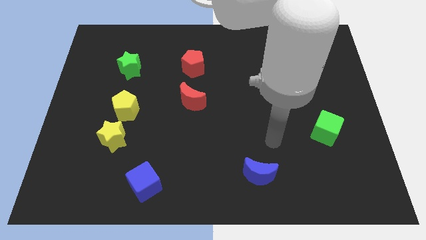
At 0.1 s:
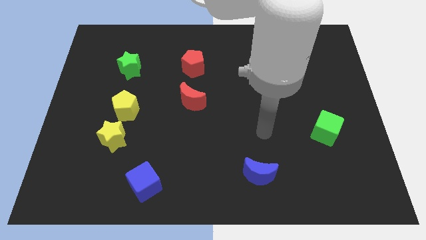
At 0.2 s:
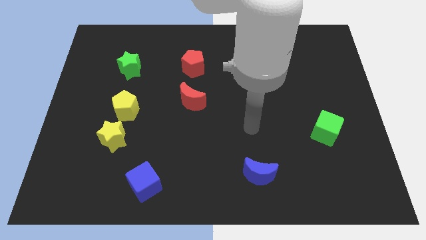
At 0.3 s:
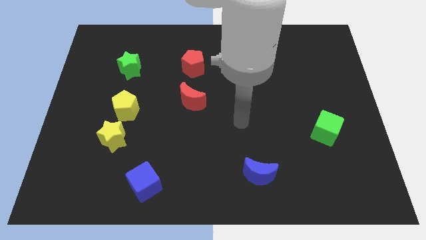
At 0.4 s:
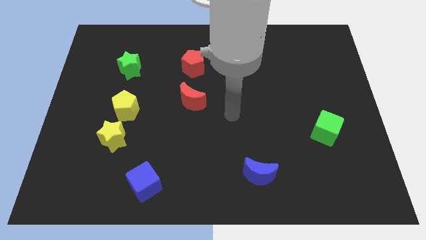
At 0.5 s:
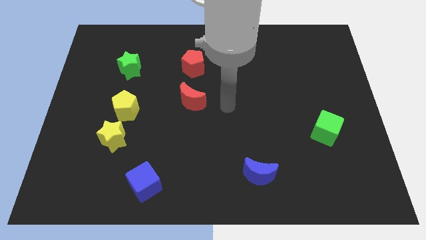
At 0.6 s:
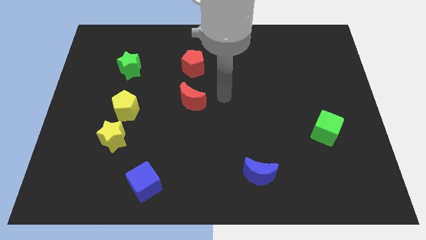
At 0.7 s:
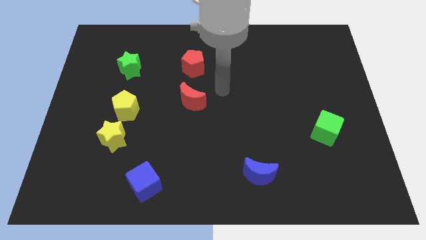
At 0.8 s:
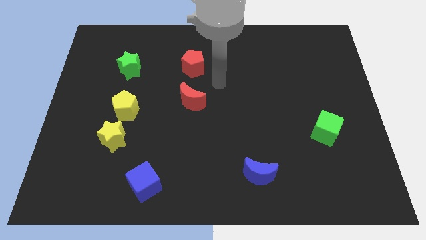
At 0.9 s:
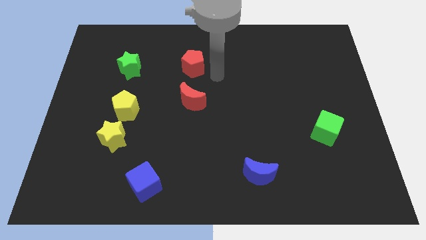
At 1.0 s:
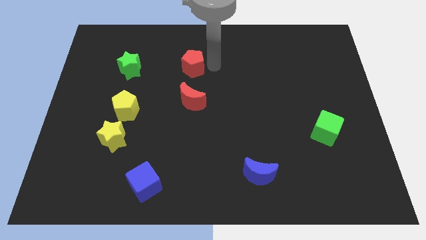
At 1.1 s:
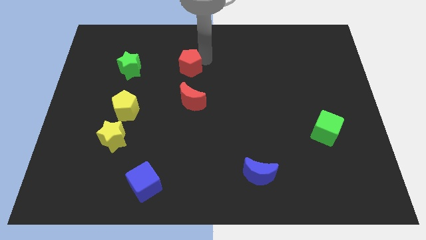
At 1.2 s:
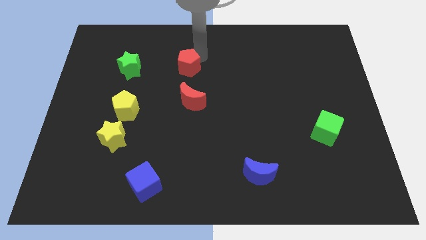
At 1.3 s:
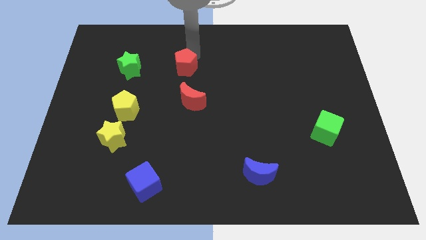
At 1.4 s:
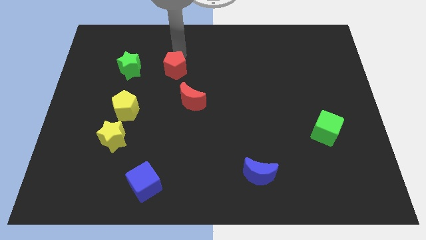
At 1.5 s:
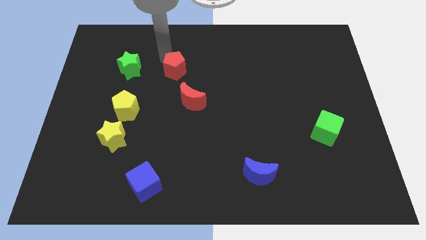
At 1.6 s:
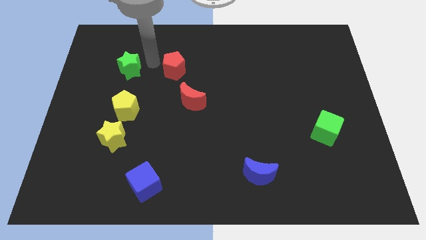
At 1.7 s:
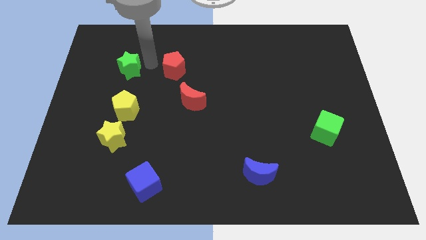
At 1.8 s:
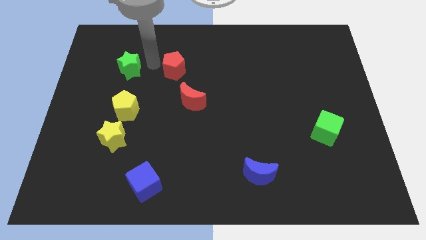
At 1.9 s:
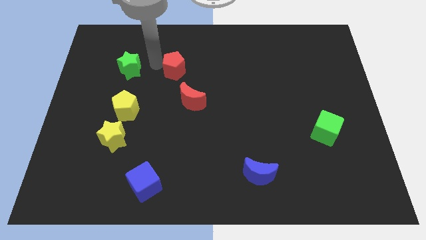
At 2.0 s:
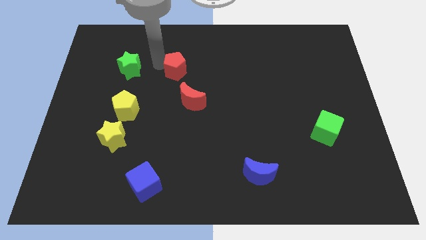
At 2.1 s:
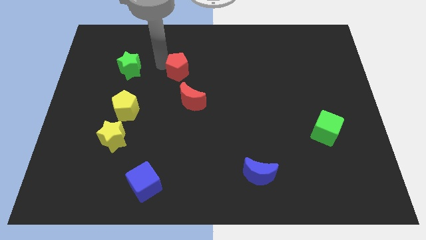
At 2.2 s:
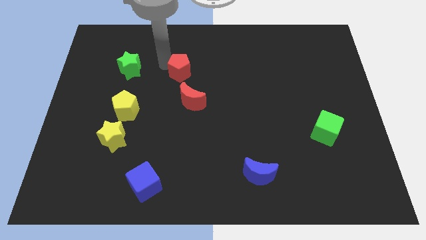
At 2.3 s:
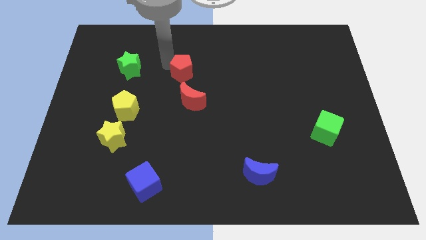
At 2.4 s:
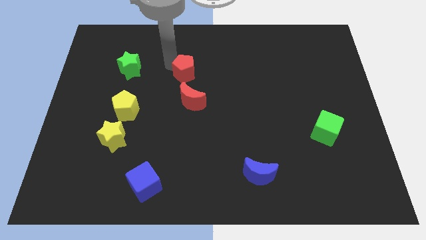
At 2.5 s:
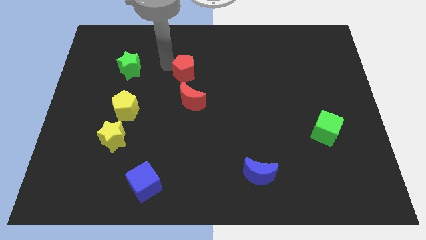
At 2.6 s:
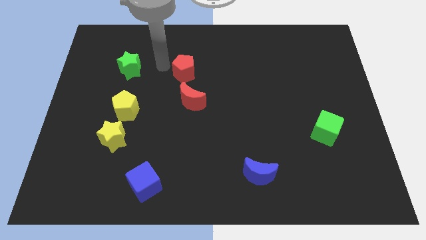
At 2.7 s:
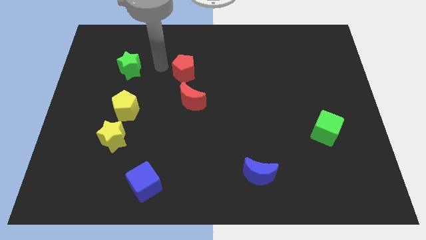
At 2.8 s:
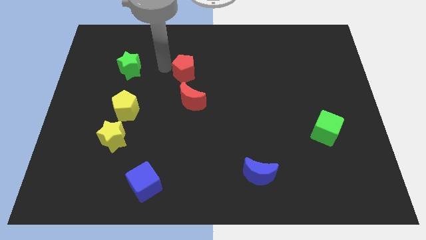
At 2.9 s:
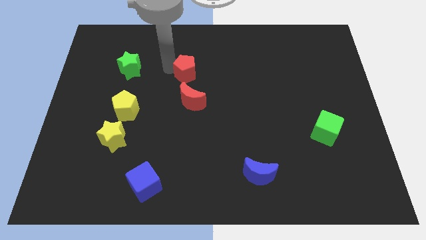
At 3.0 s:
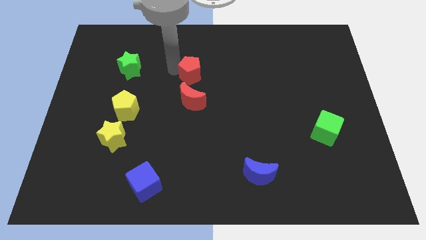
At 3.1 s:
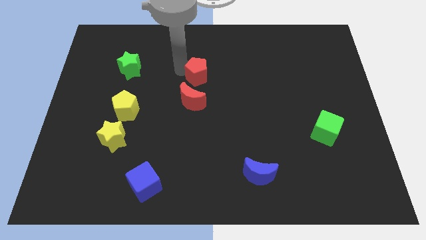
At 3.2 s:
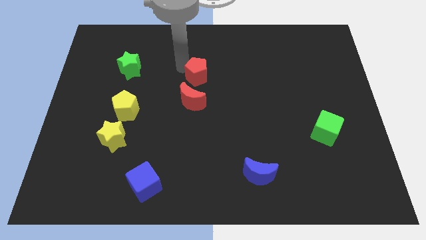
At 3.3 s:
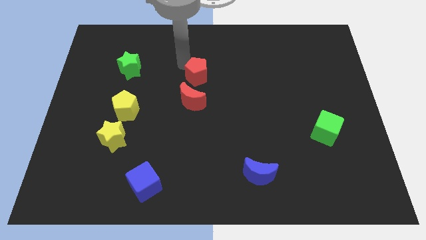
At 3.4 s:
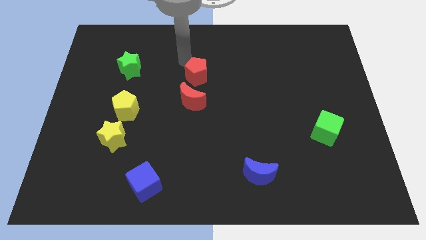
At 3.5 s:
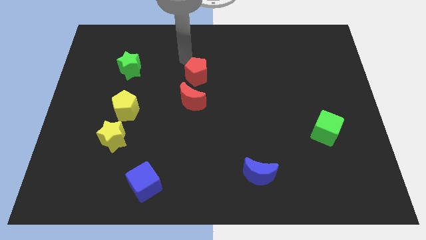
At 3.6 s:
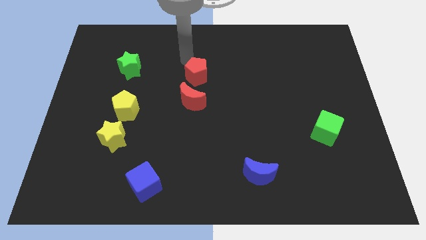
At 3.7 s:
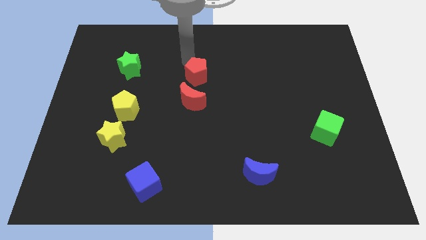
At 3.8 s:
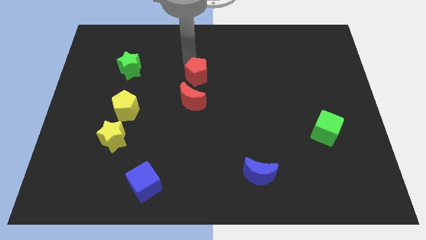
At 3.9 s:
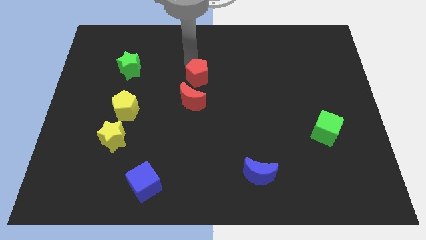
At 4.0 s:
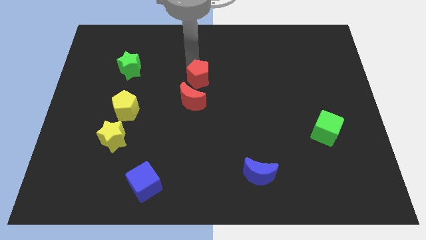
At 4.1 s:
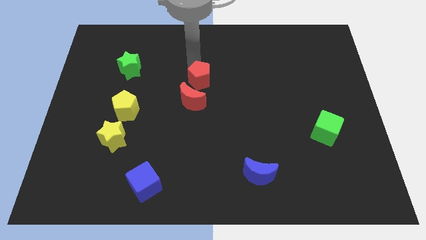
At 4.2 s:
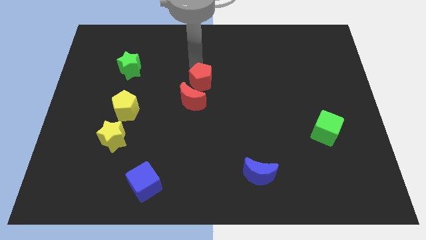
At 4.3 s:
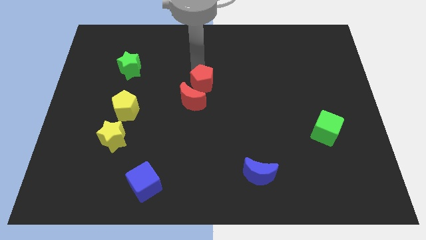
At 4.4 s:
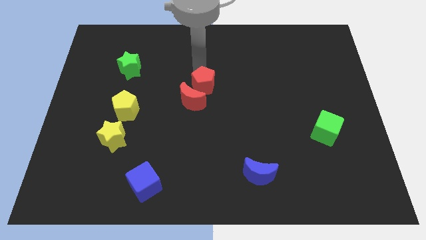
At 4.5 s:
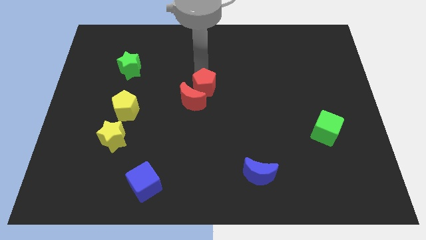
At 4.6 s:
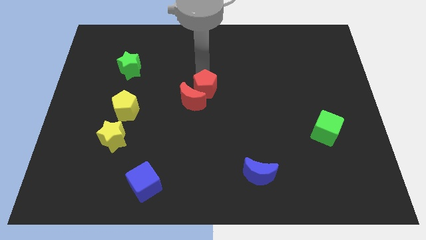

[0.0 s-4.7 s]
slide the red pentagon down somewhat

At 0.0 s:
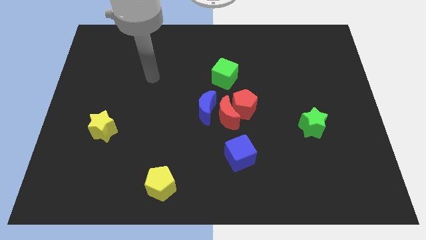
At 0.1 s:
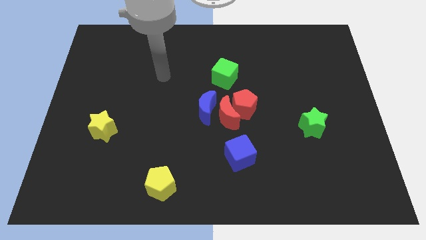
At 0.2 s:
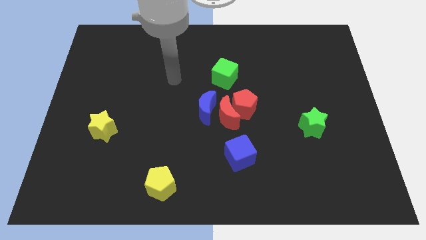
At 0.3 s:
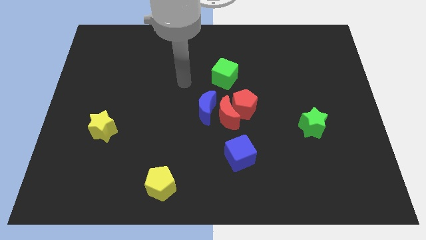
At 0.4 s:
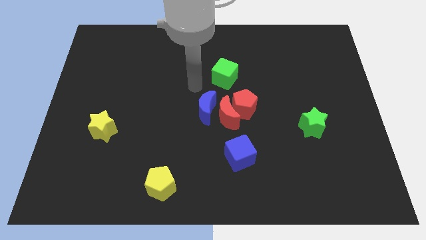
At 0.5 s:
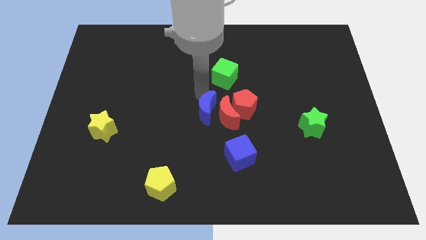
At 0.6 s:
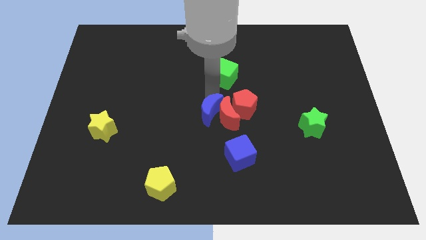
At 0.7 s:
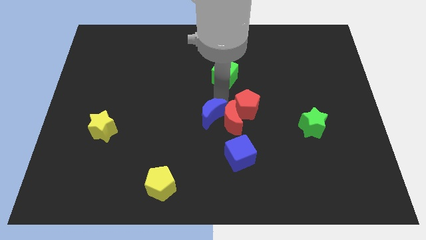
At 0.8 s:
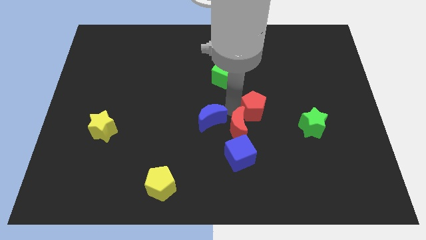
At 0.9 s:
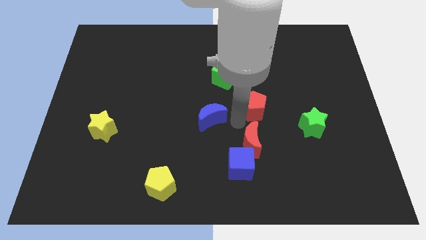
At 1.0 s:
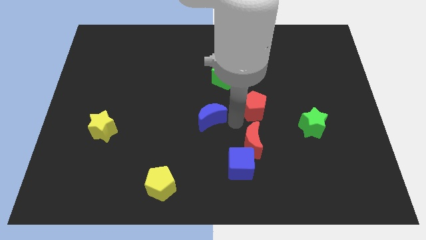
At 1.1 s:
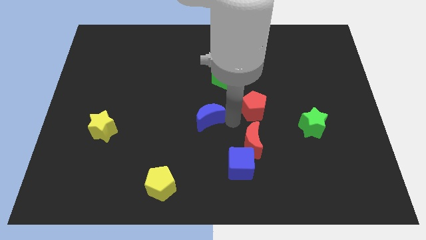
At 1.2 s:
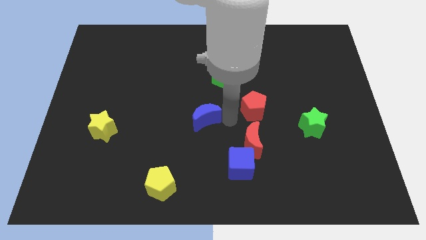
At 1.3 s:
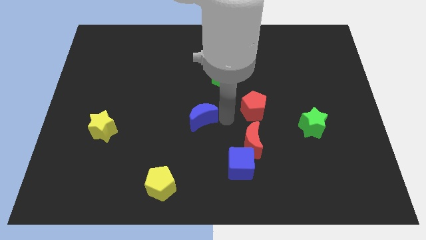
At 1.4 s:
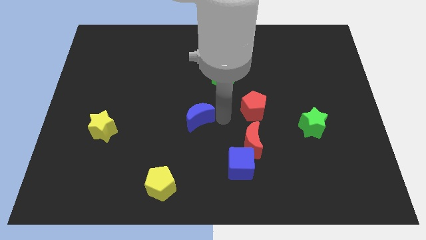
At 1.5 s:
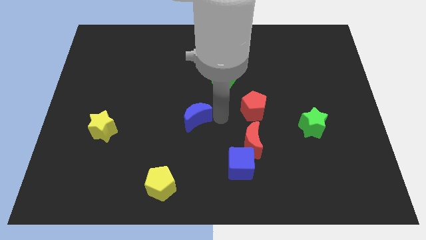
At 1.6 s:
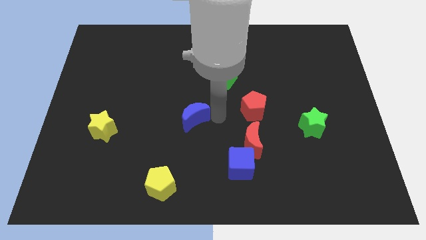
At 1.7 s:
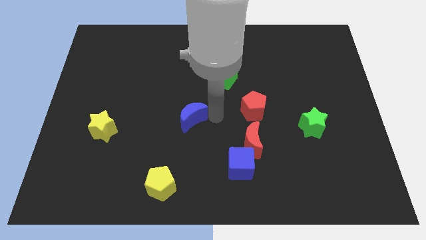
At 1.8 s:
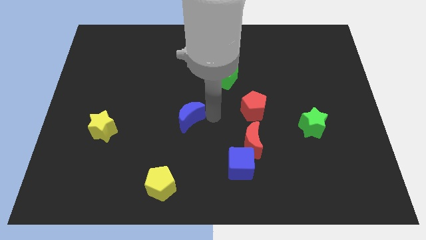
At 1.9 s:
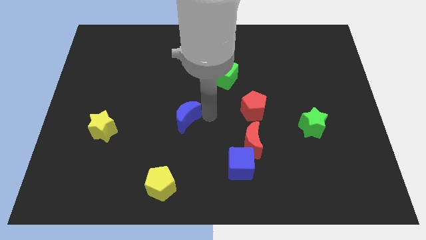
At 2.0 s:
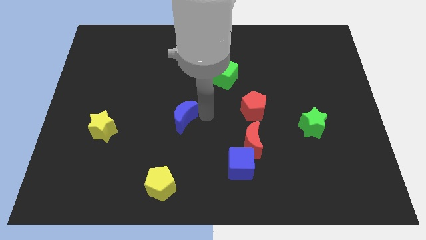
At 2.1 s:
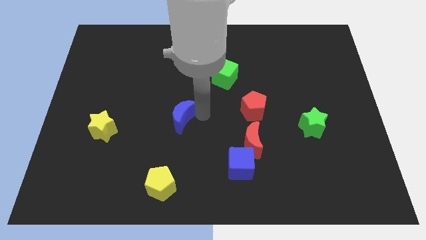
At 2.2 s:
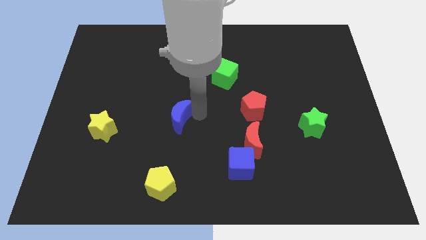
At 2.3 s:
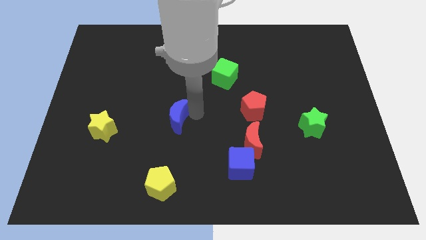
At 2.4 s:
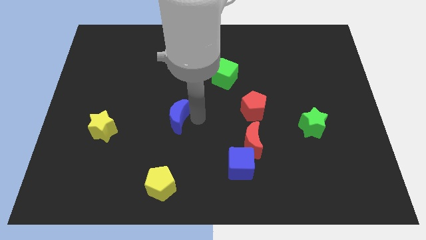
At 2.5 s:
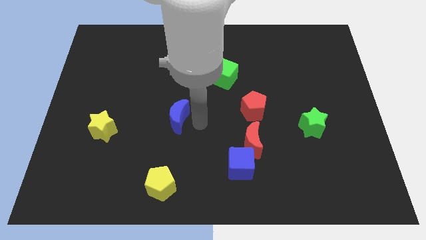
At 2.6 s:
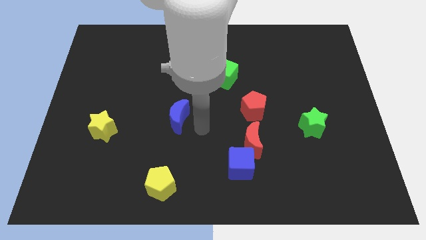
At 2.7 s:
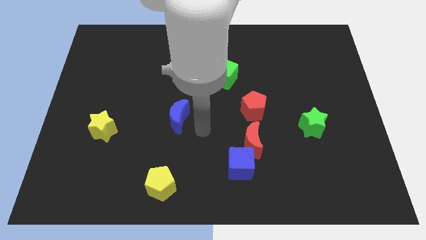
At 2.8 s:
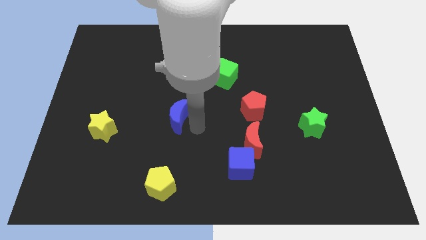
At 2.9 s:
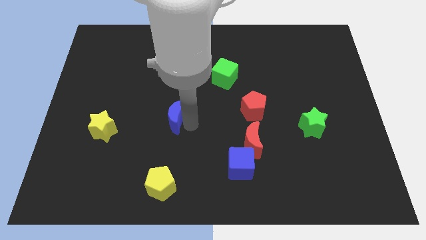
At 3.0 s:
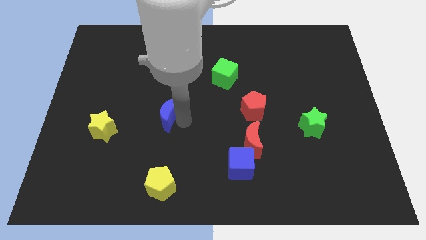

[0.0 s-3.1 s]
slide the blue moon slightly left

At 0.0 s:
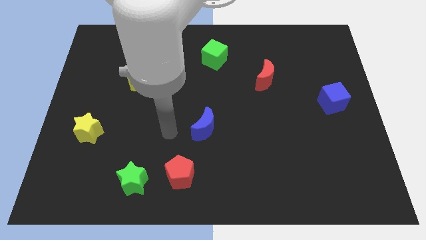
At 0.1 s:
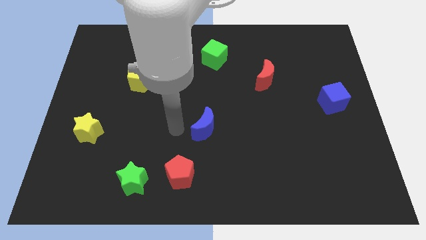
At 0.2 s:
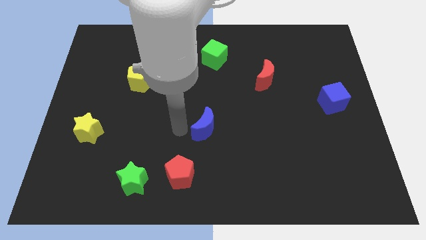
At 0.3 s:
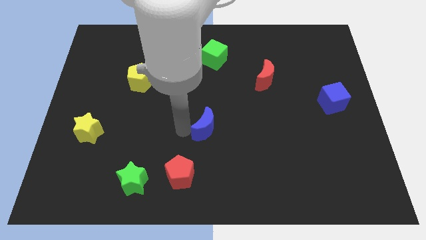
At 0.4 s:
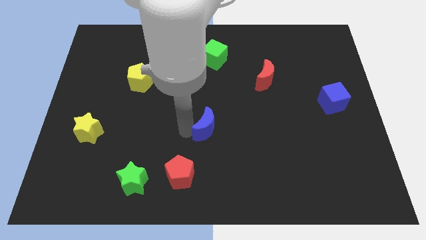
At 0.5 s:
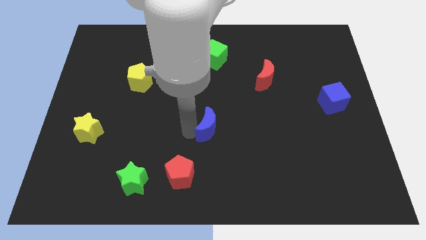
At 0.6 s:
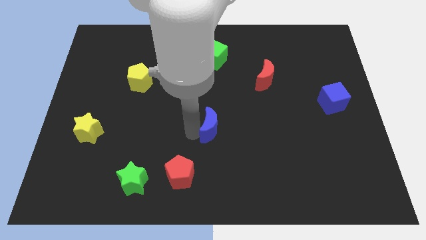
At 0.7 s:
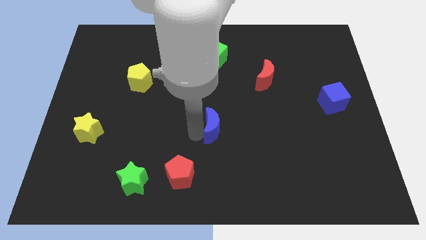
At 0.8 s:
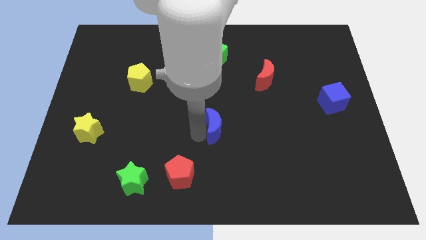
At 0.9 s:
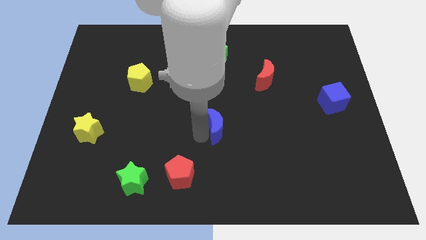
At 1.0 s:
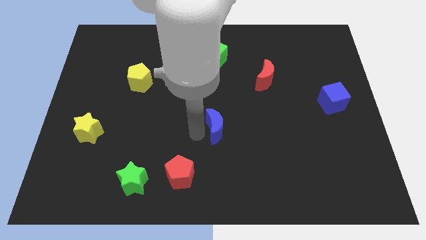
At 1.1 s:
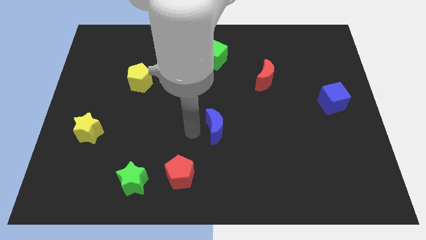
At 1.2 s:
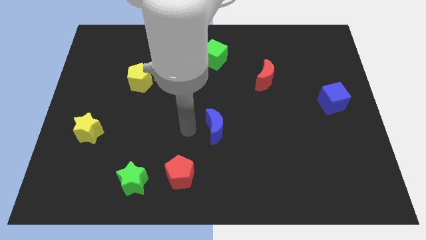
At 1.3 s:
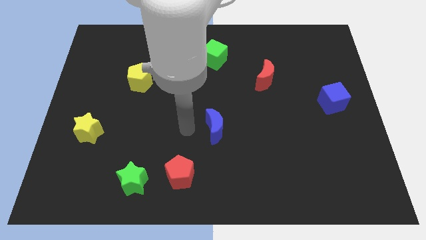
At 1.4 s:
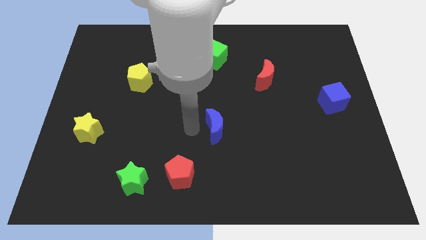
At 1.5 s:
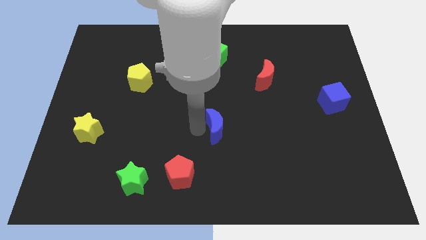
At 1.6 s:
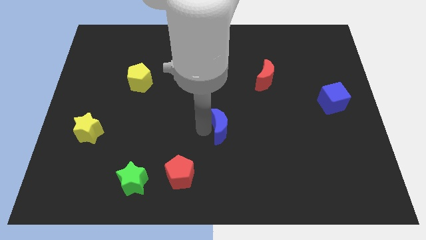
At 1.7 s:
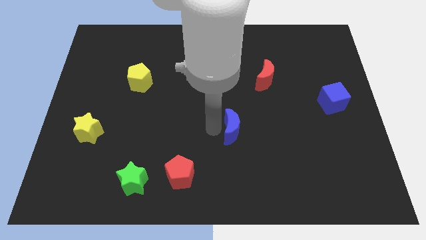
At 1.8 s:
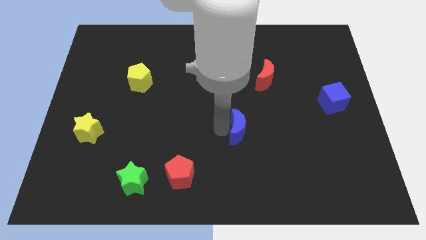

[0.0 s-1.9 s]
move the blue moon to the right somewhat
